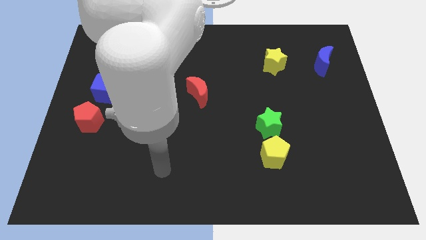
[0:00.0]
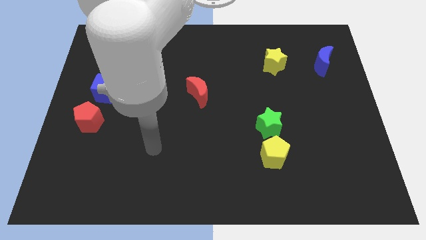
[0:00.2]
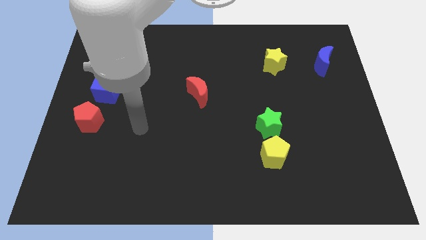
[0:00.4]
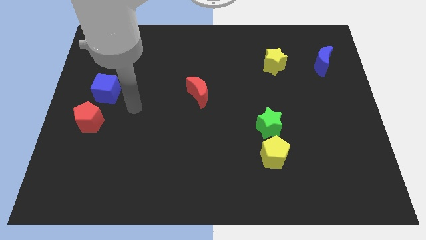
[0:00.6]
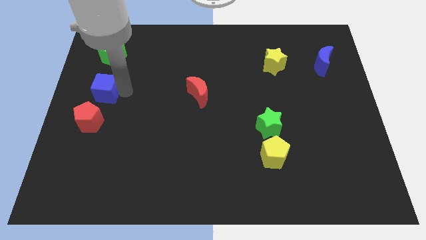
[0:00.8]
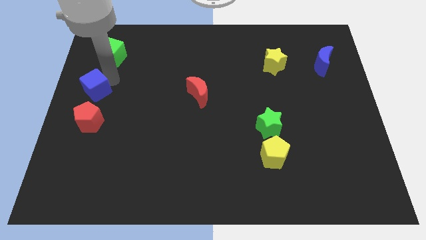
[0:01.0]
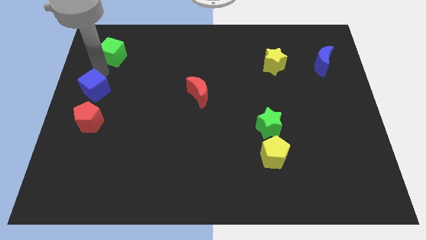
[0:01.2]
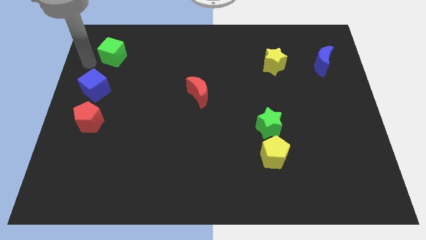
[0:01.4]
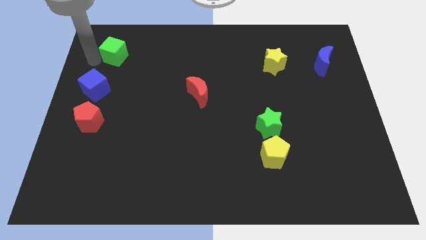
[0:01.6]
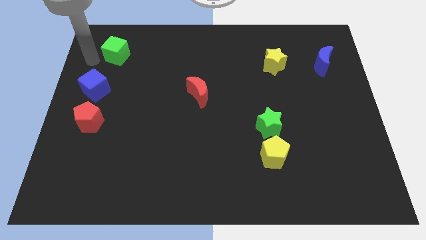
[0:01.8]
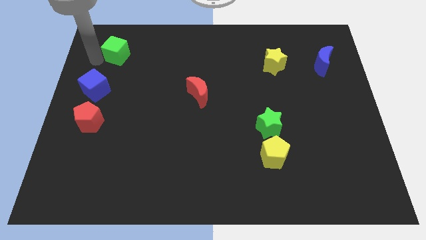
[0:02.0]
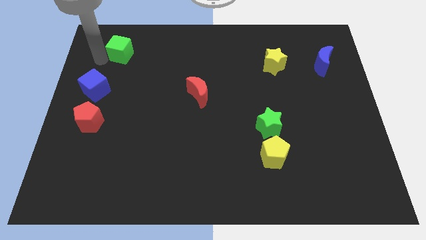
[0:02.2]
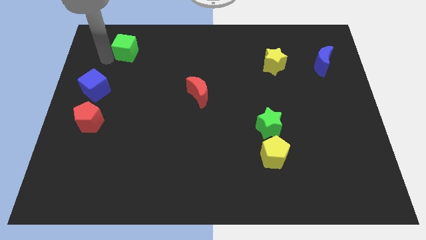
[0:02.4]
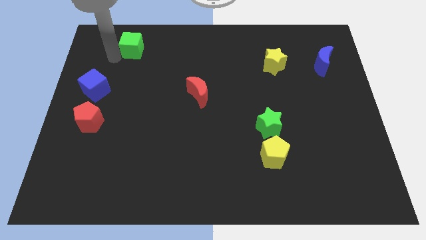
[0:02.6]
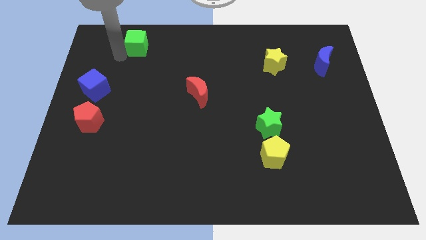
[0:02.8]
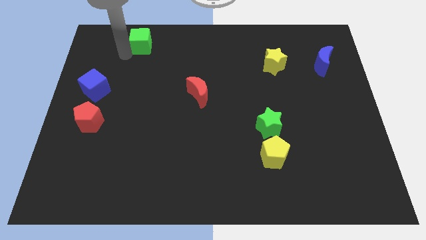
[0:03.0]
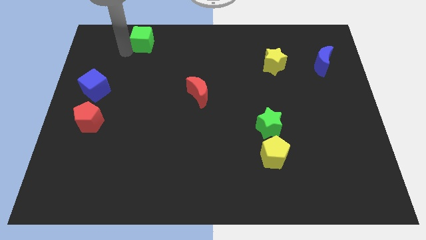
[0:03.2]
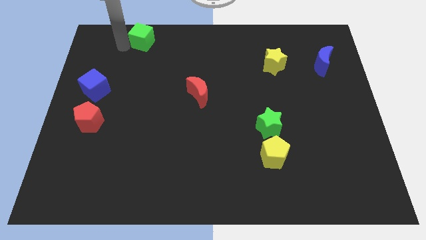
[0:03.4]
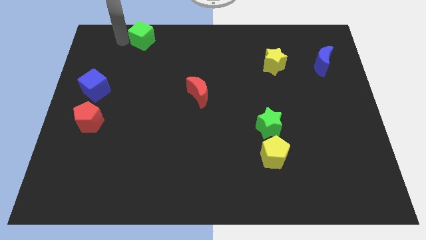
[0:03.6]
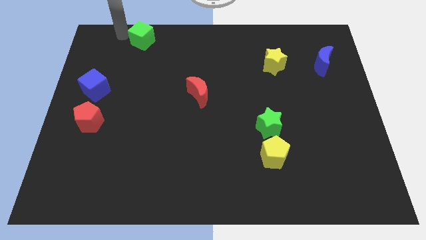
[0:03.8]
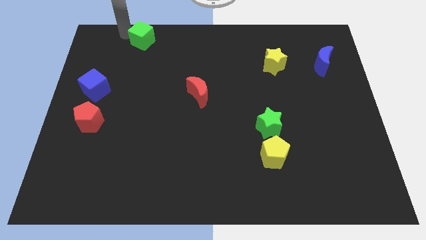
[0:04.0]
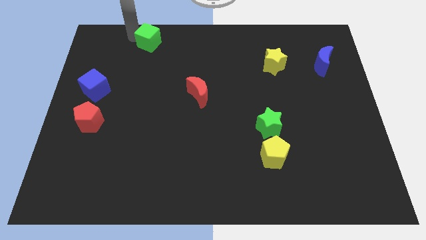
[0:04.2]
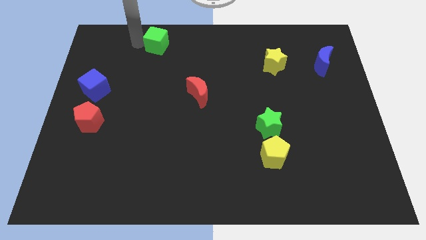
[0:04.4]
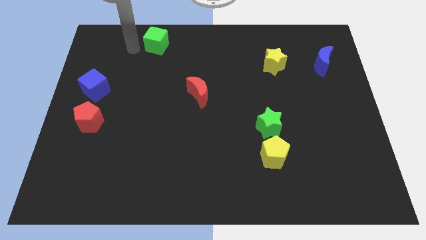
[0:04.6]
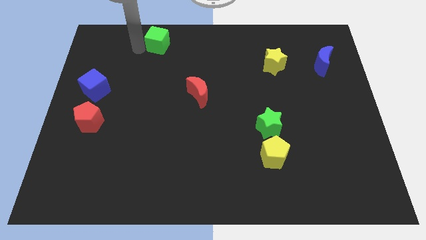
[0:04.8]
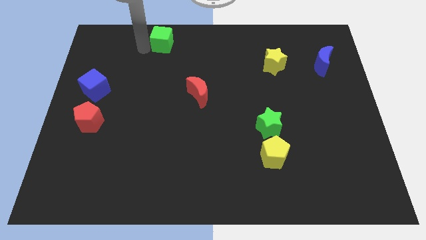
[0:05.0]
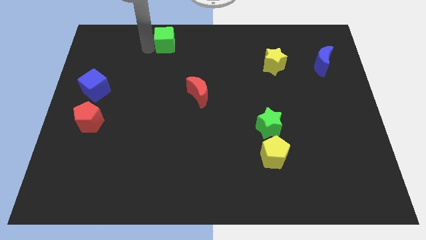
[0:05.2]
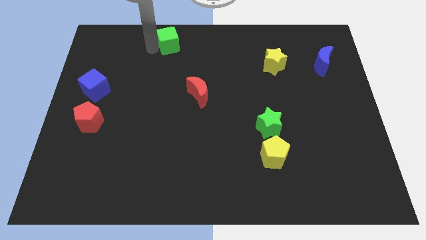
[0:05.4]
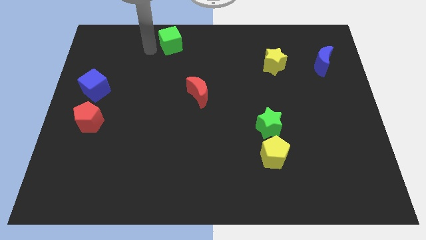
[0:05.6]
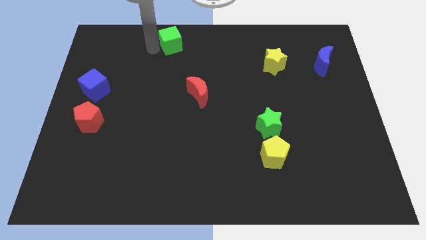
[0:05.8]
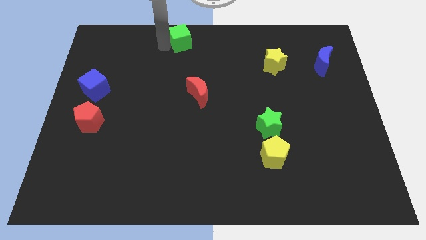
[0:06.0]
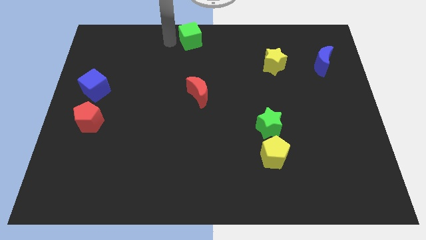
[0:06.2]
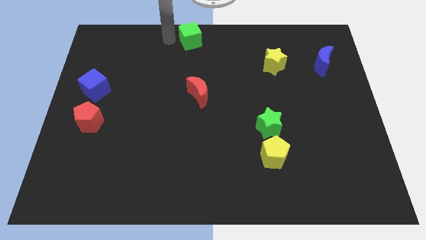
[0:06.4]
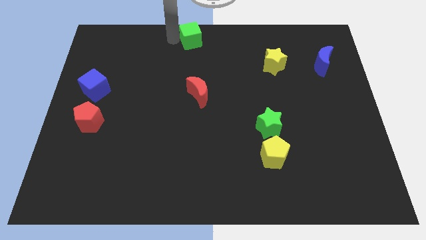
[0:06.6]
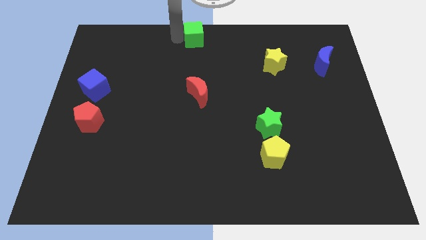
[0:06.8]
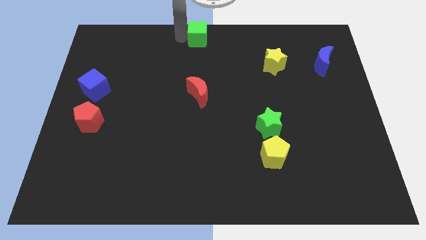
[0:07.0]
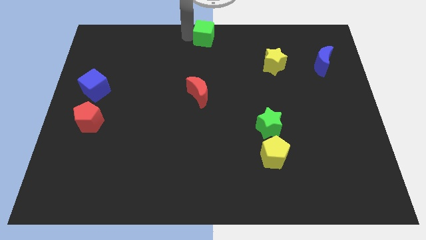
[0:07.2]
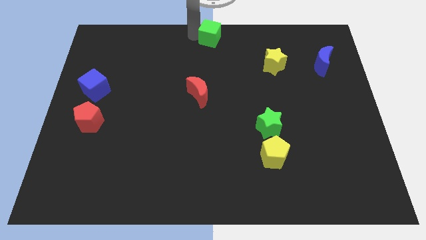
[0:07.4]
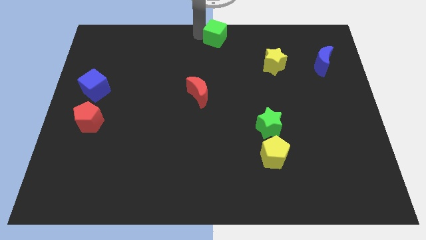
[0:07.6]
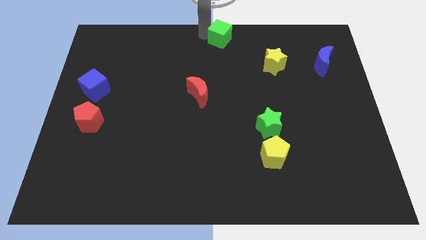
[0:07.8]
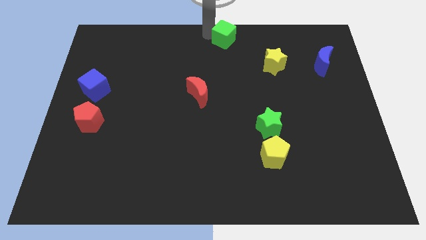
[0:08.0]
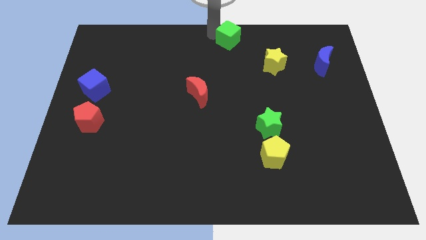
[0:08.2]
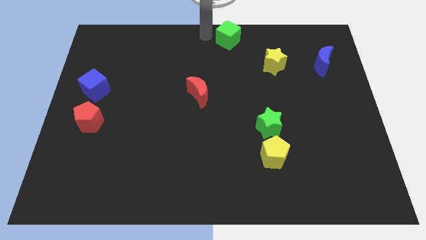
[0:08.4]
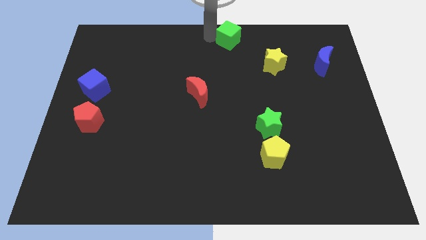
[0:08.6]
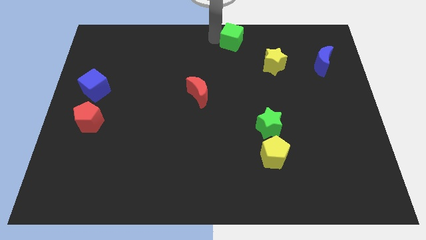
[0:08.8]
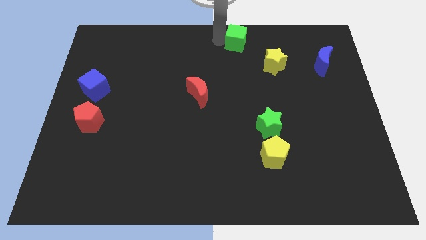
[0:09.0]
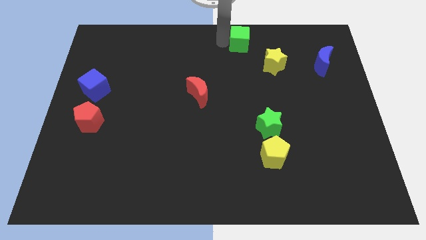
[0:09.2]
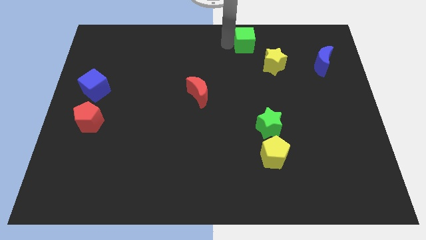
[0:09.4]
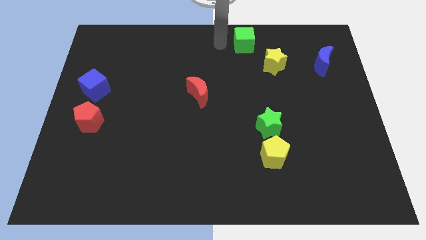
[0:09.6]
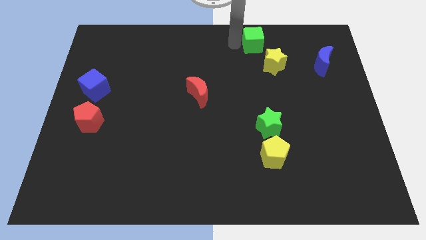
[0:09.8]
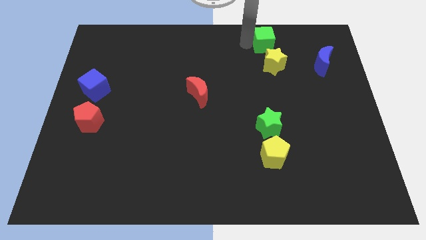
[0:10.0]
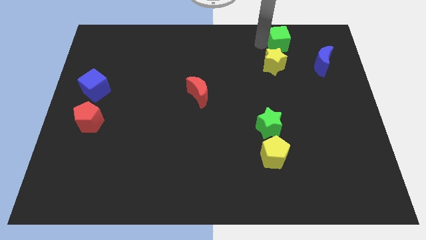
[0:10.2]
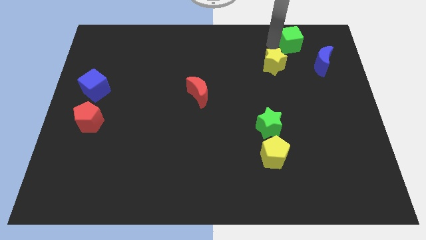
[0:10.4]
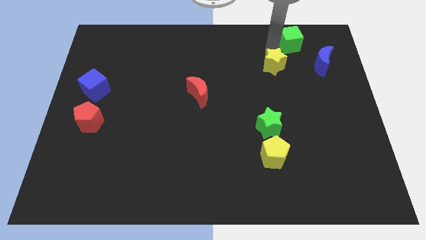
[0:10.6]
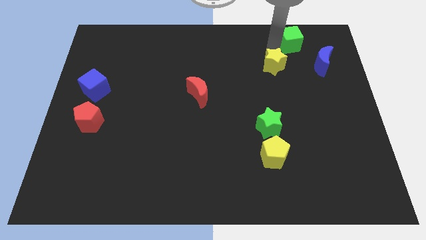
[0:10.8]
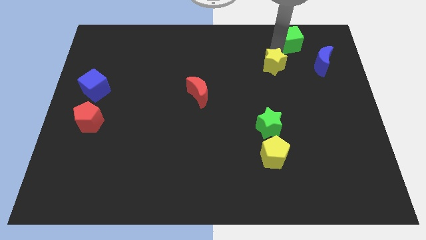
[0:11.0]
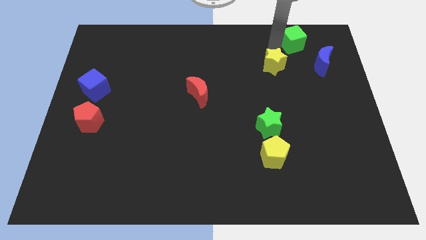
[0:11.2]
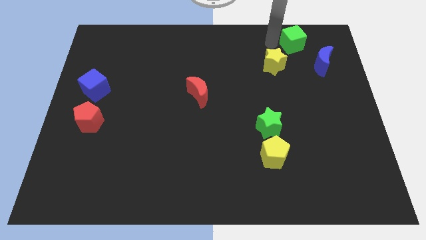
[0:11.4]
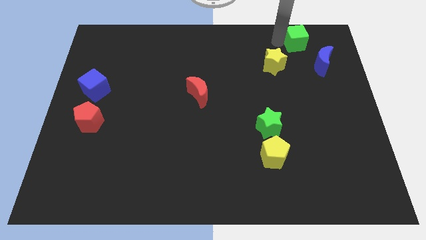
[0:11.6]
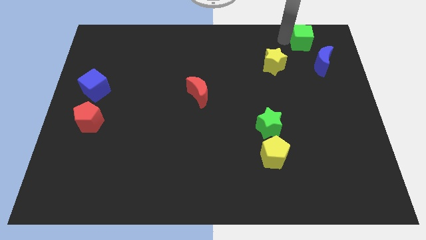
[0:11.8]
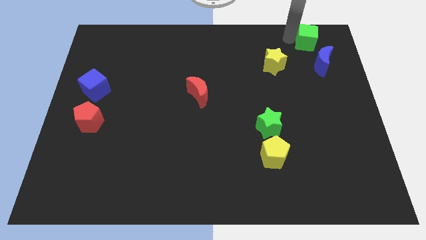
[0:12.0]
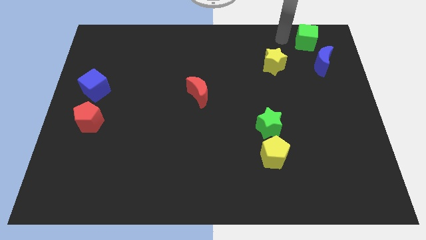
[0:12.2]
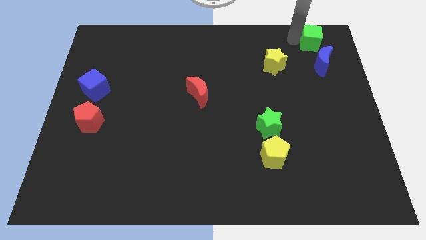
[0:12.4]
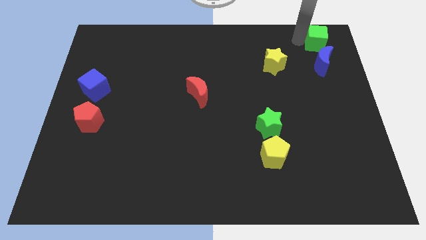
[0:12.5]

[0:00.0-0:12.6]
push the green cube to the upper right corner
